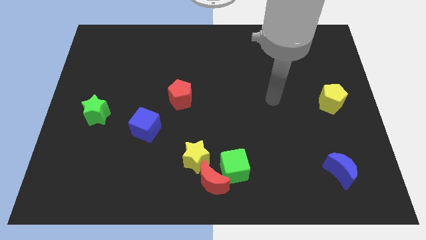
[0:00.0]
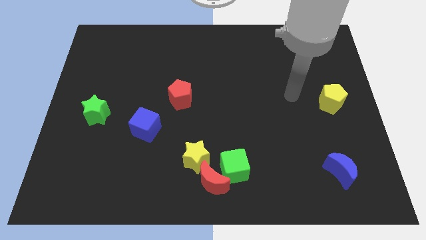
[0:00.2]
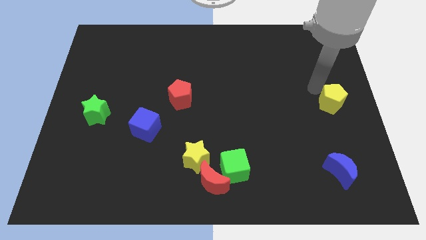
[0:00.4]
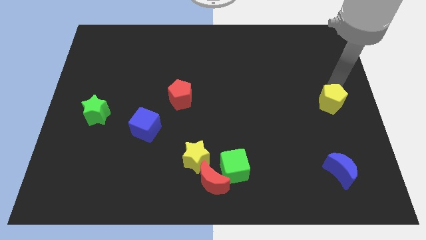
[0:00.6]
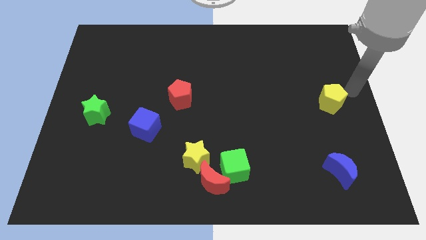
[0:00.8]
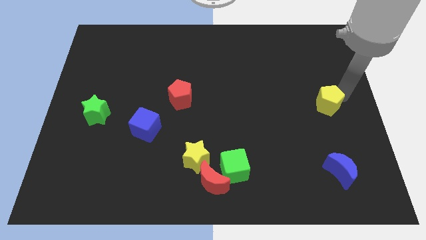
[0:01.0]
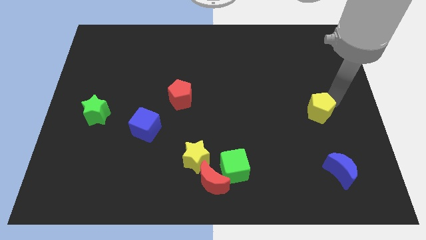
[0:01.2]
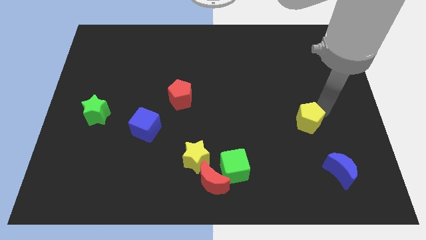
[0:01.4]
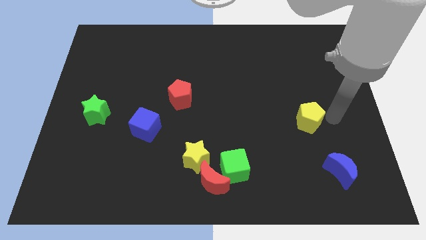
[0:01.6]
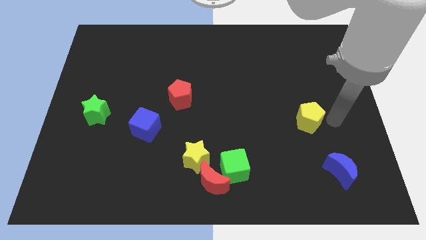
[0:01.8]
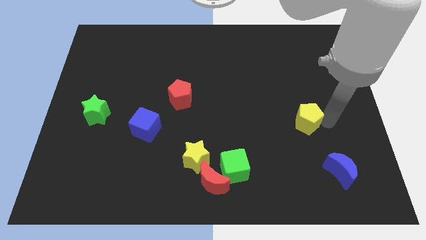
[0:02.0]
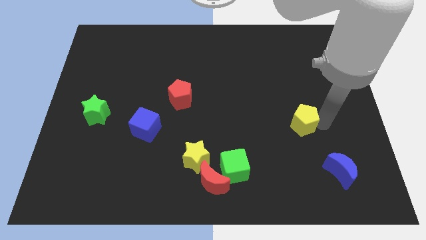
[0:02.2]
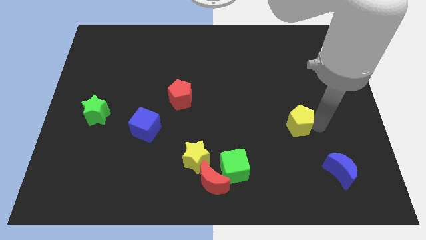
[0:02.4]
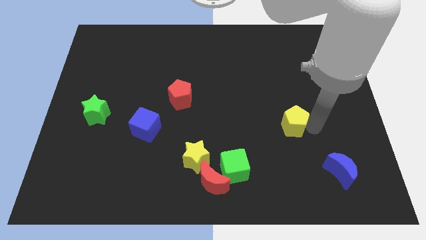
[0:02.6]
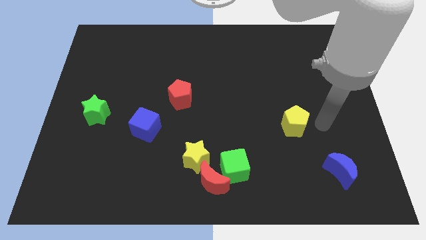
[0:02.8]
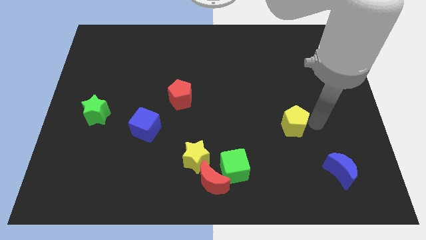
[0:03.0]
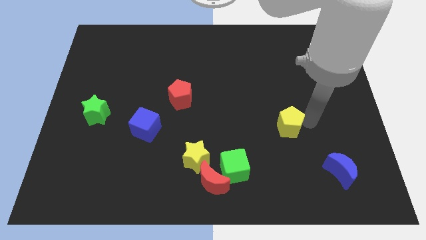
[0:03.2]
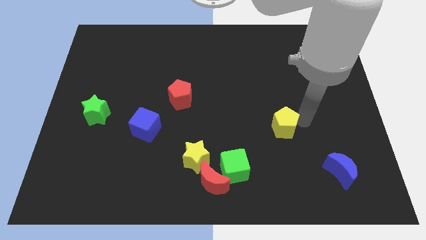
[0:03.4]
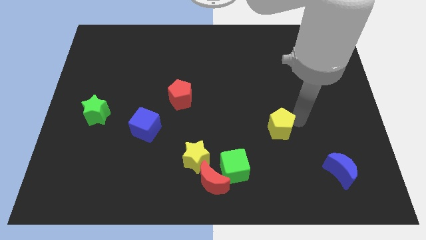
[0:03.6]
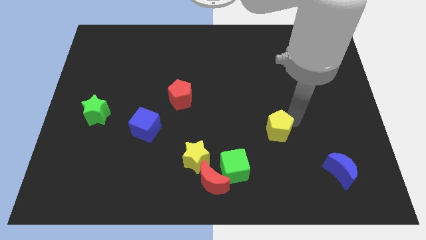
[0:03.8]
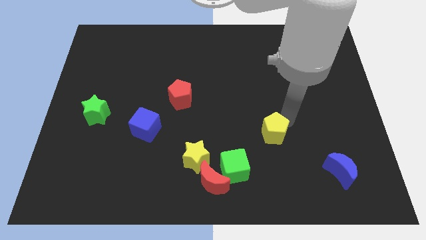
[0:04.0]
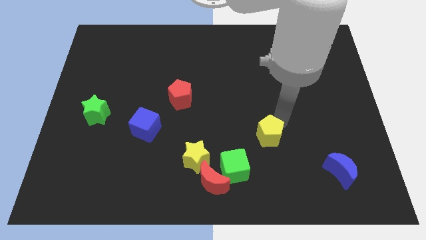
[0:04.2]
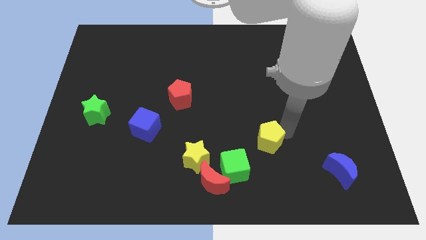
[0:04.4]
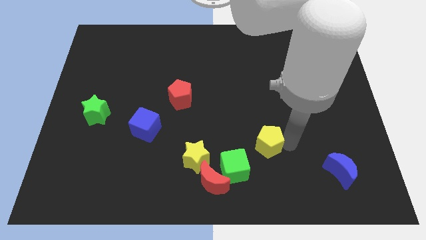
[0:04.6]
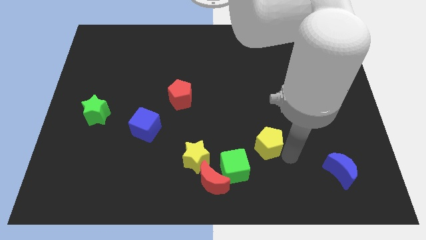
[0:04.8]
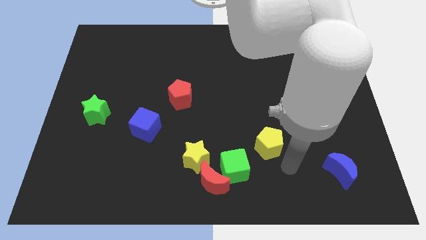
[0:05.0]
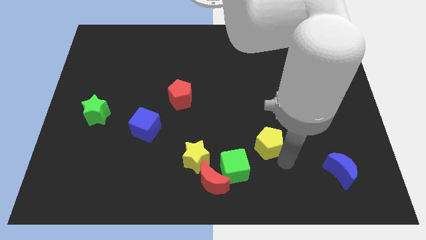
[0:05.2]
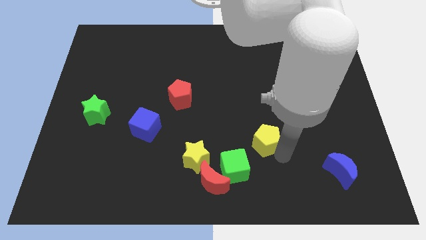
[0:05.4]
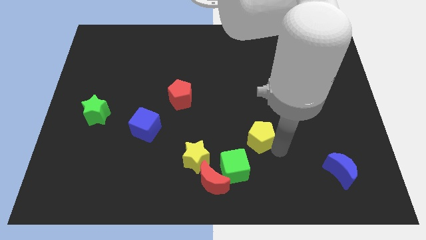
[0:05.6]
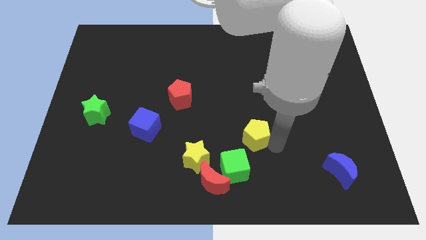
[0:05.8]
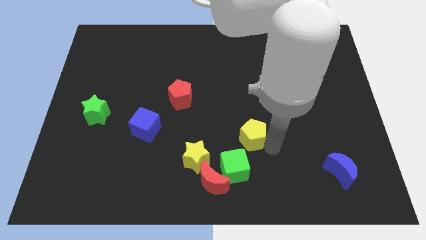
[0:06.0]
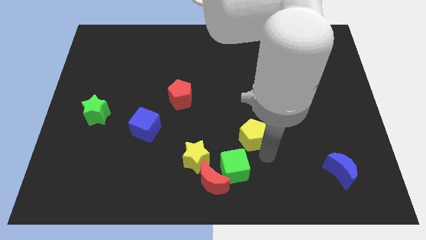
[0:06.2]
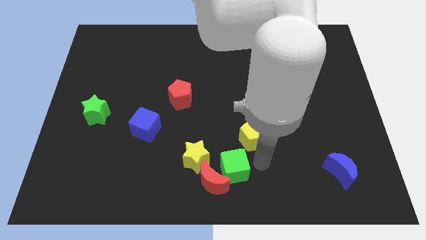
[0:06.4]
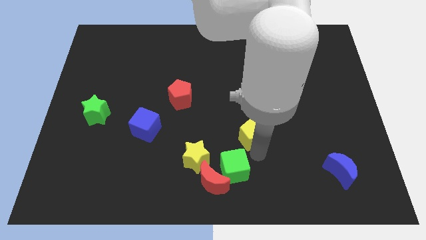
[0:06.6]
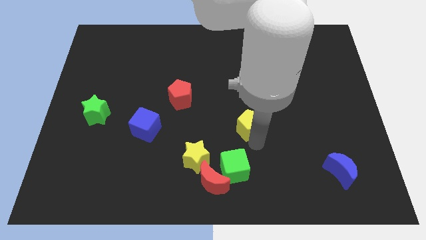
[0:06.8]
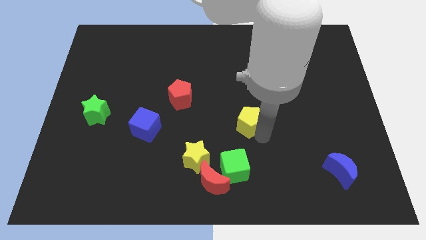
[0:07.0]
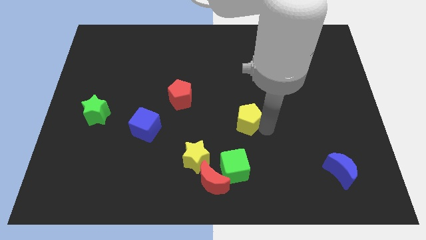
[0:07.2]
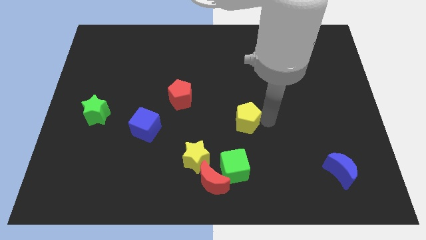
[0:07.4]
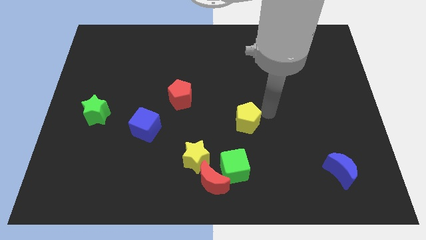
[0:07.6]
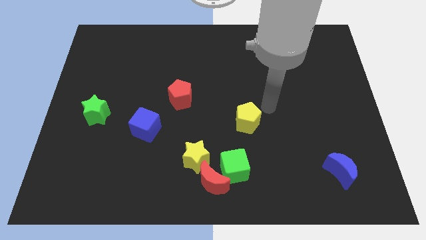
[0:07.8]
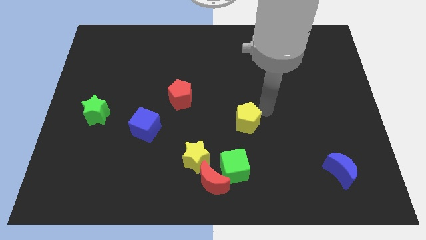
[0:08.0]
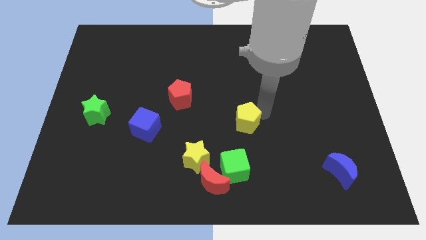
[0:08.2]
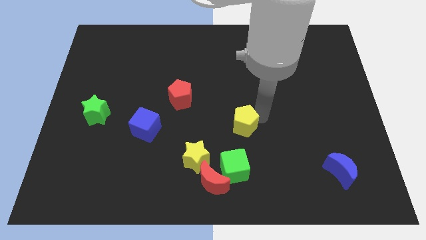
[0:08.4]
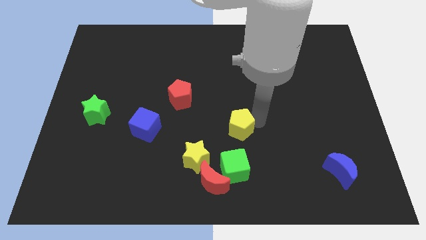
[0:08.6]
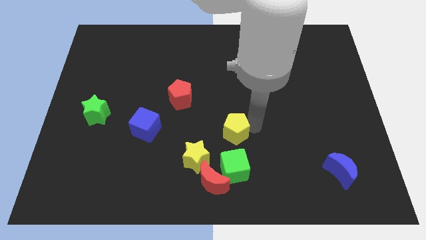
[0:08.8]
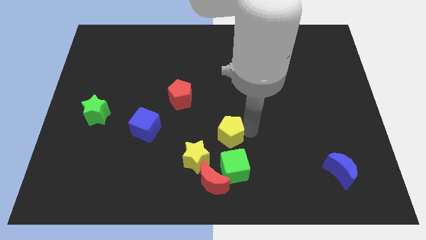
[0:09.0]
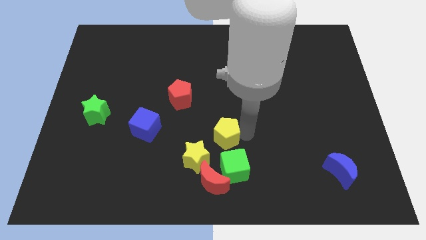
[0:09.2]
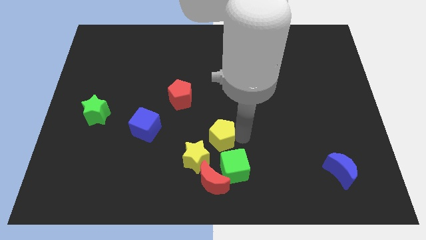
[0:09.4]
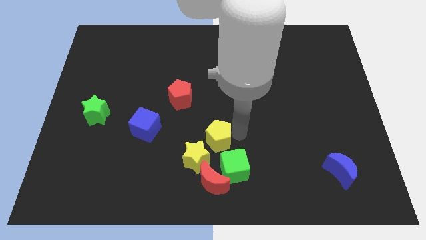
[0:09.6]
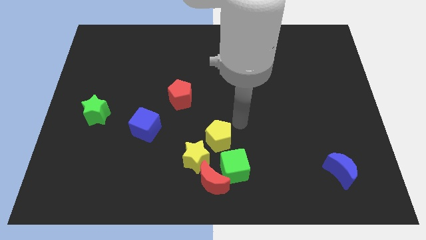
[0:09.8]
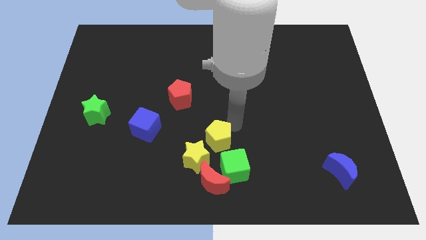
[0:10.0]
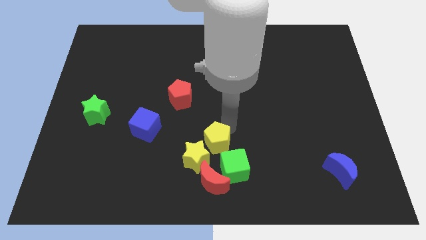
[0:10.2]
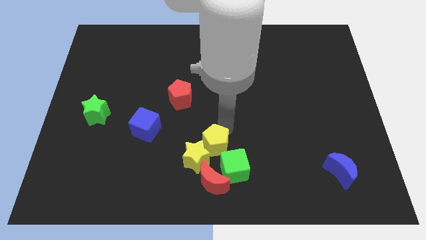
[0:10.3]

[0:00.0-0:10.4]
slide the yellow pentagon towards the yellow star

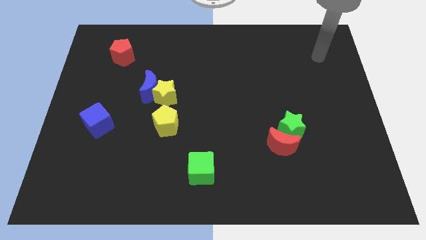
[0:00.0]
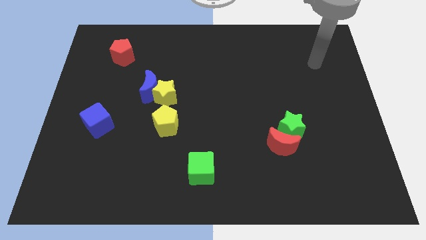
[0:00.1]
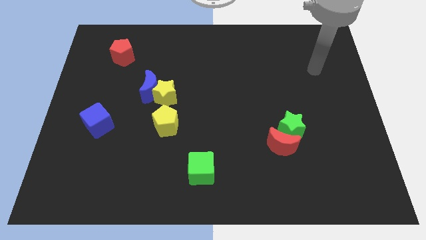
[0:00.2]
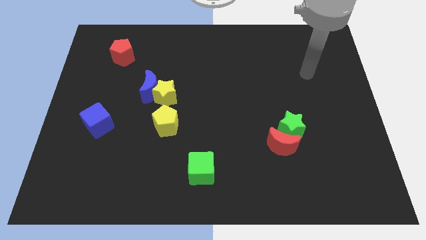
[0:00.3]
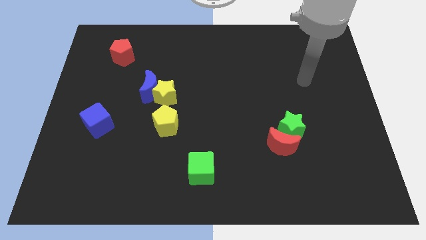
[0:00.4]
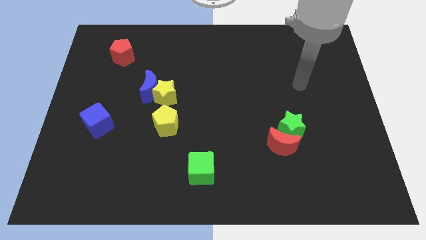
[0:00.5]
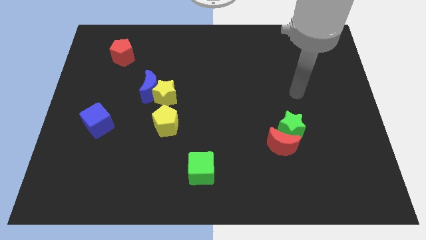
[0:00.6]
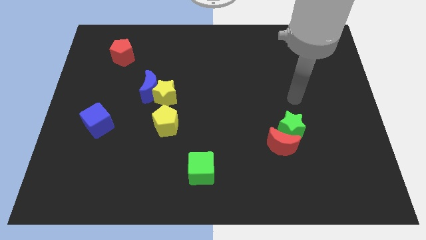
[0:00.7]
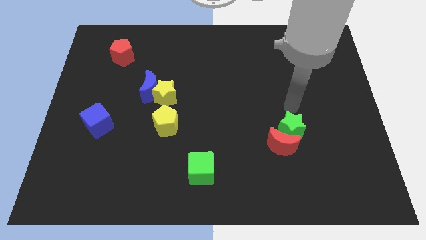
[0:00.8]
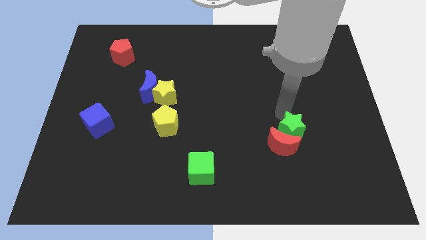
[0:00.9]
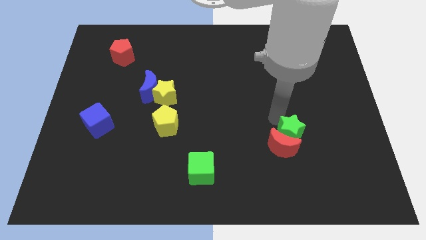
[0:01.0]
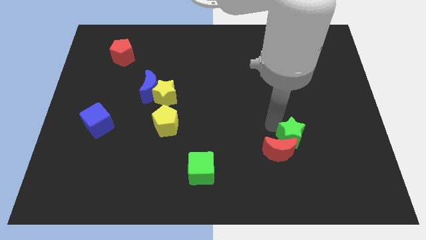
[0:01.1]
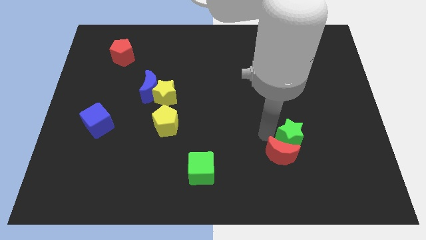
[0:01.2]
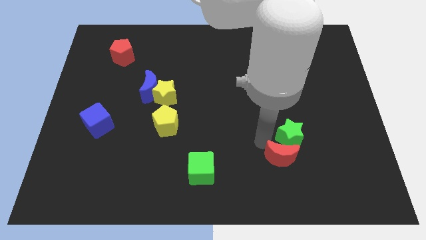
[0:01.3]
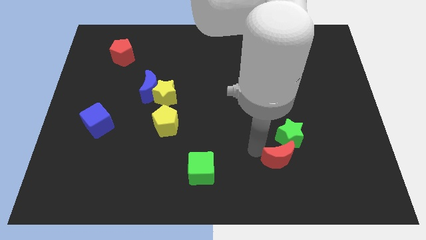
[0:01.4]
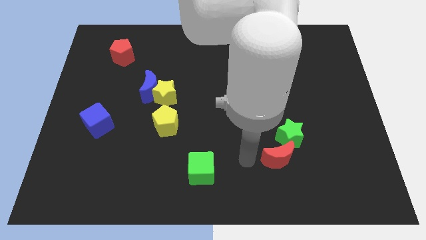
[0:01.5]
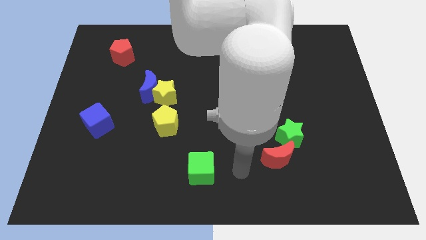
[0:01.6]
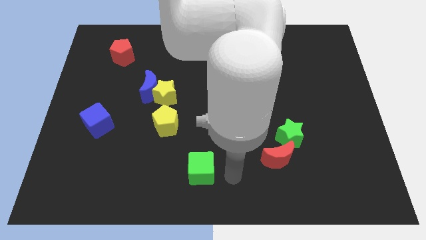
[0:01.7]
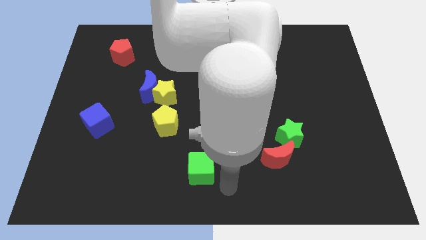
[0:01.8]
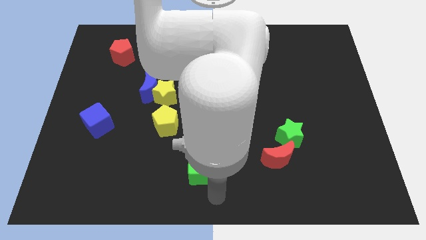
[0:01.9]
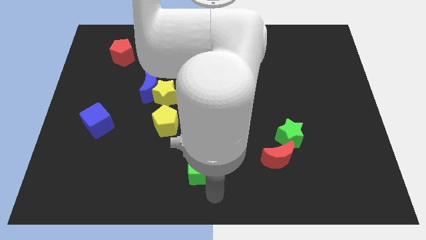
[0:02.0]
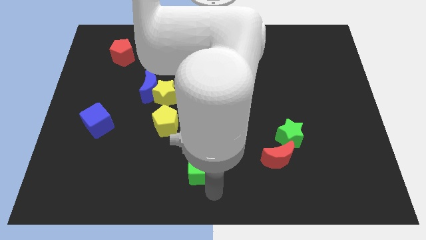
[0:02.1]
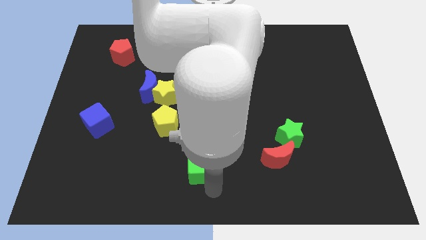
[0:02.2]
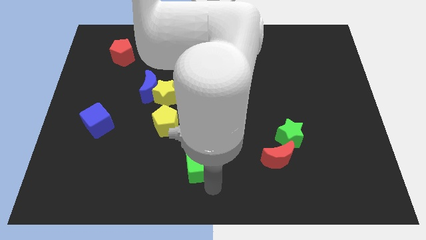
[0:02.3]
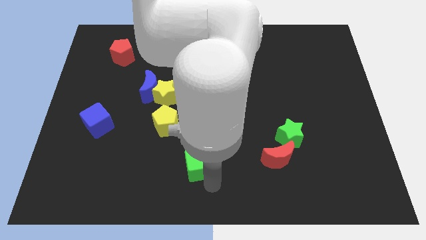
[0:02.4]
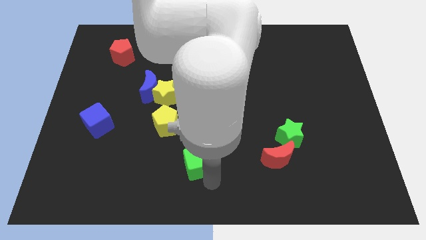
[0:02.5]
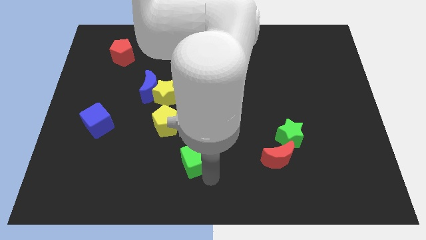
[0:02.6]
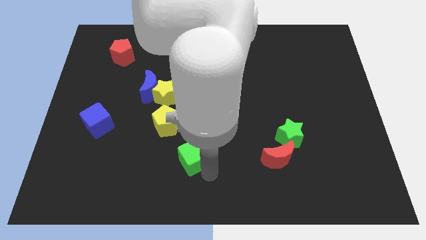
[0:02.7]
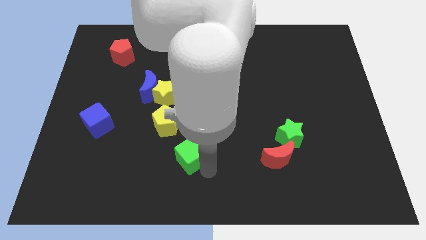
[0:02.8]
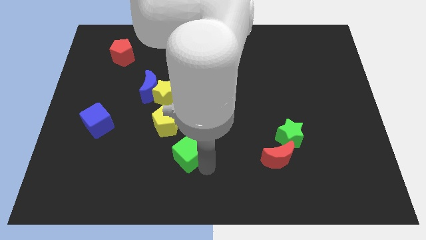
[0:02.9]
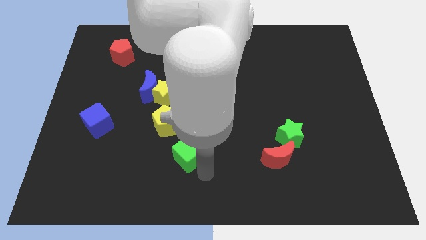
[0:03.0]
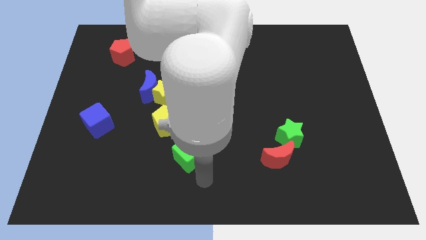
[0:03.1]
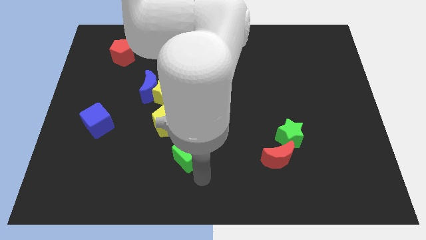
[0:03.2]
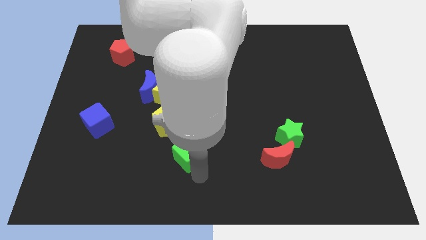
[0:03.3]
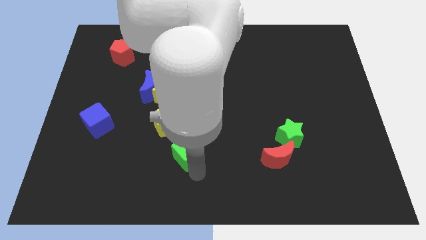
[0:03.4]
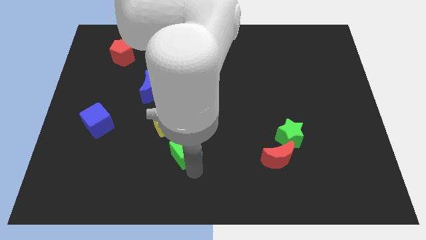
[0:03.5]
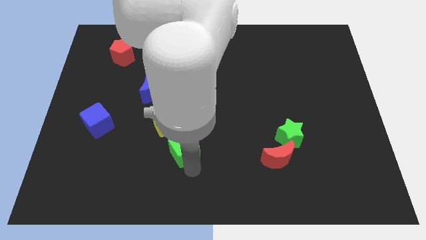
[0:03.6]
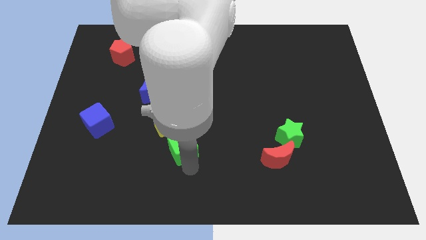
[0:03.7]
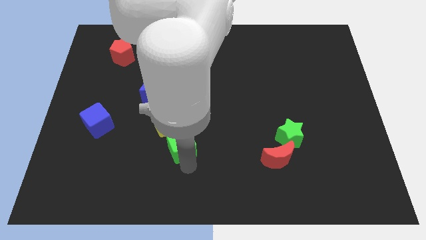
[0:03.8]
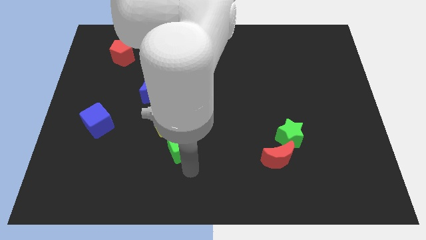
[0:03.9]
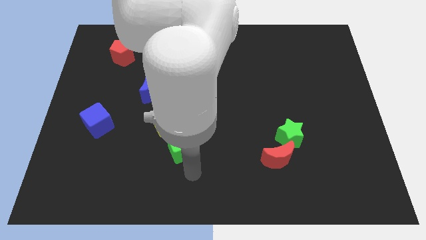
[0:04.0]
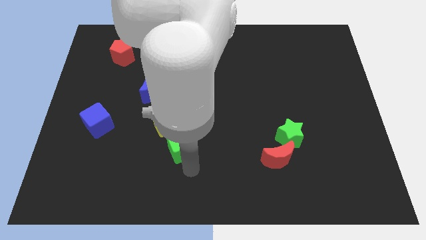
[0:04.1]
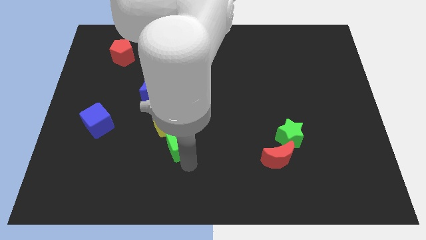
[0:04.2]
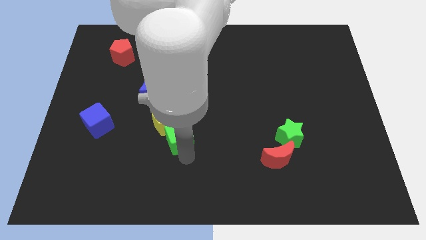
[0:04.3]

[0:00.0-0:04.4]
push the green cube next to the yellow pentagon
